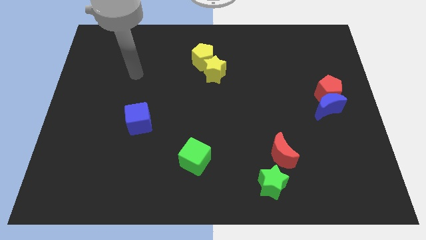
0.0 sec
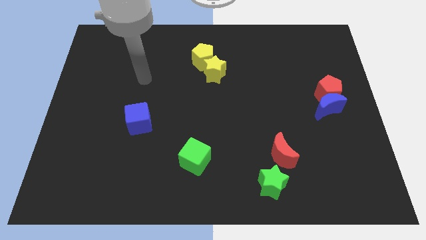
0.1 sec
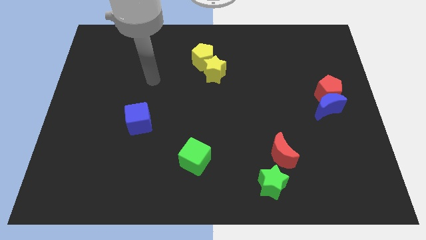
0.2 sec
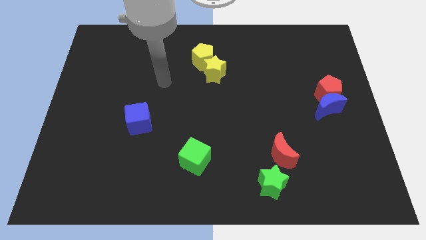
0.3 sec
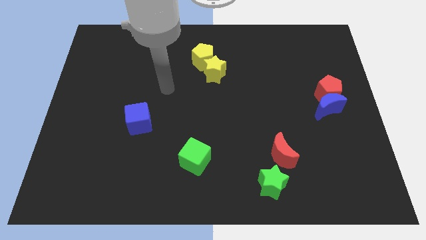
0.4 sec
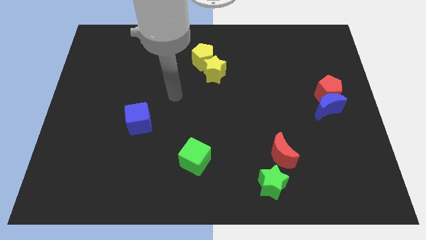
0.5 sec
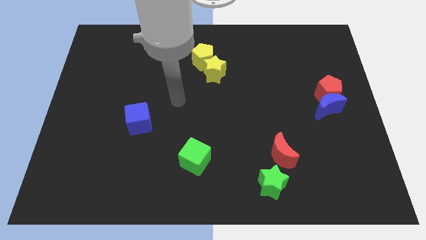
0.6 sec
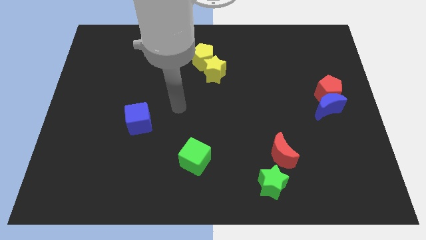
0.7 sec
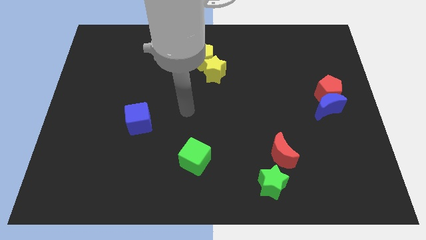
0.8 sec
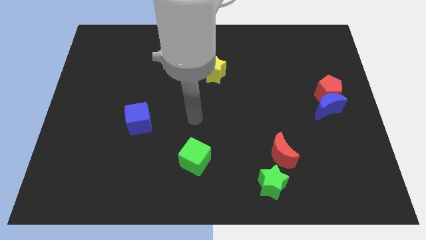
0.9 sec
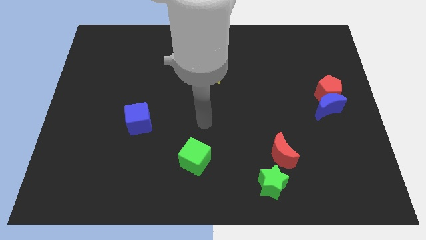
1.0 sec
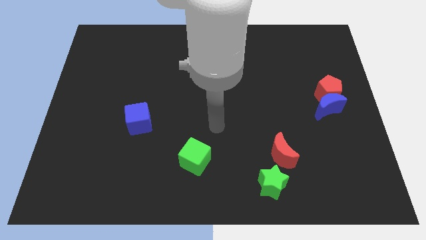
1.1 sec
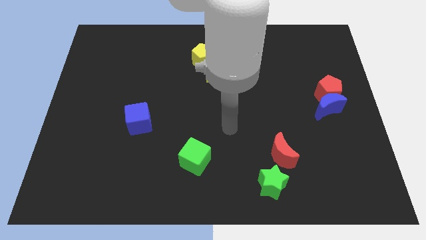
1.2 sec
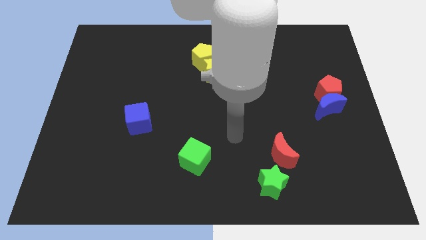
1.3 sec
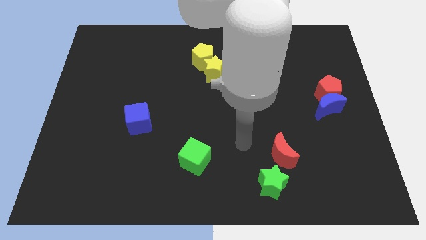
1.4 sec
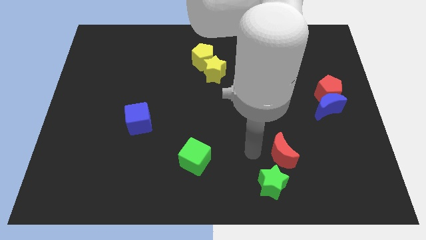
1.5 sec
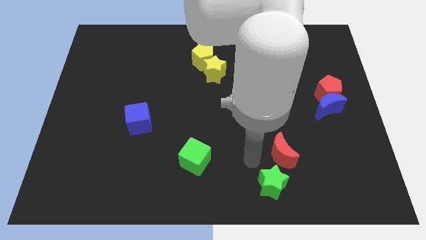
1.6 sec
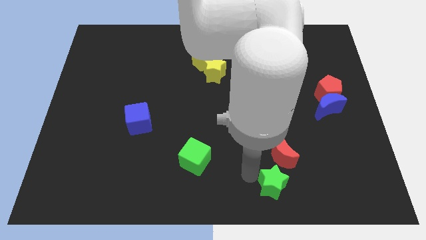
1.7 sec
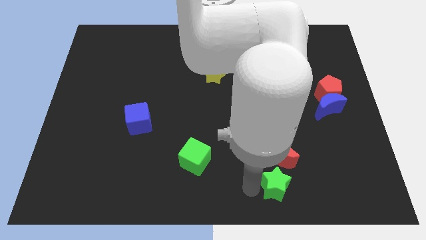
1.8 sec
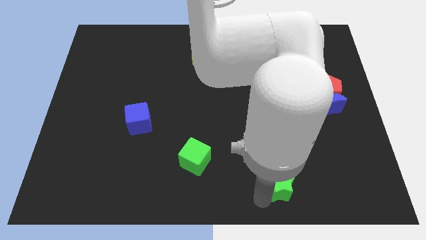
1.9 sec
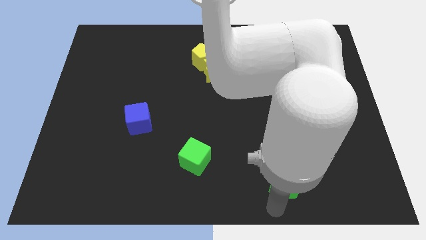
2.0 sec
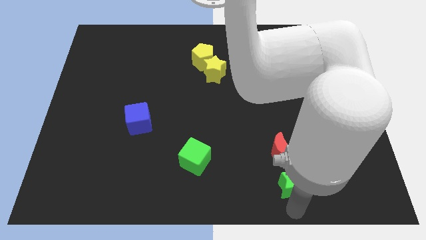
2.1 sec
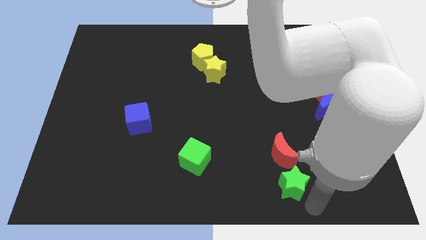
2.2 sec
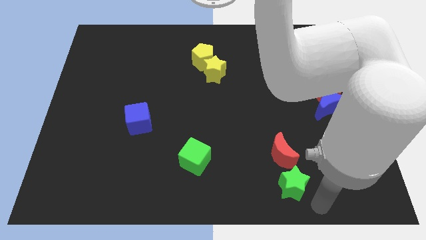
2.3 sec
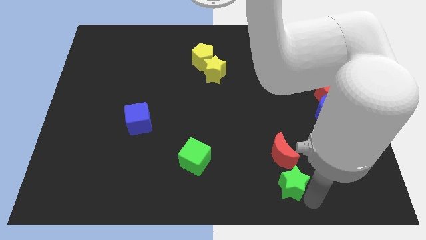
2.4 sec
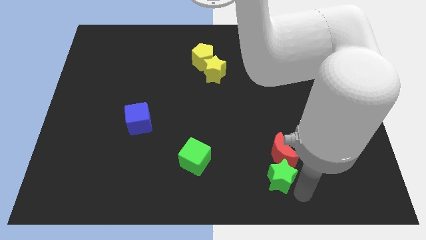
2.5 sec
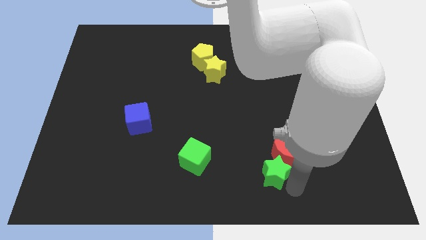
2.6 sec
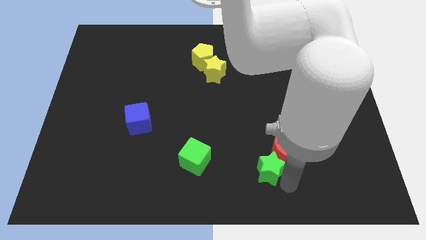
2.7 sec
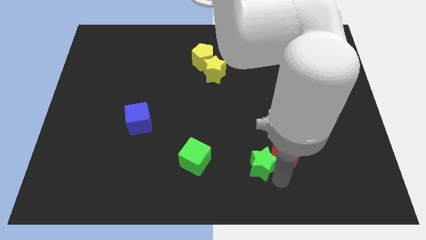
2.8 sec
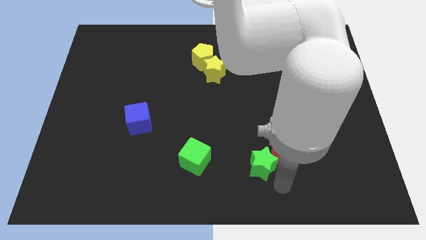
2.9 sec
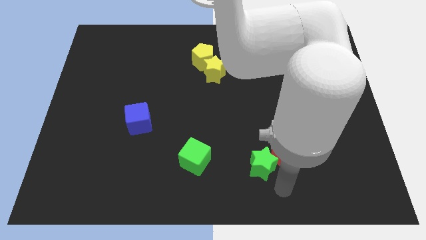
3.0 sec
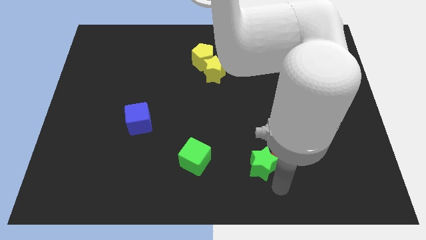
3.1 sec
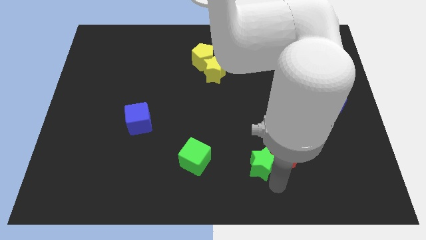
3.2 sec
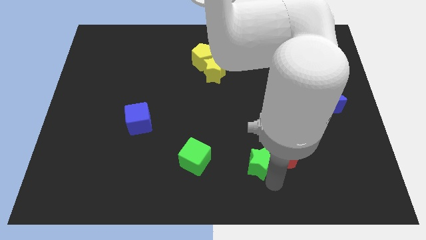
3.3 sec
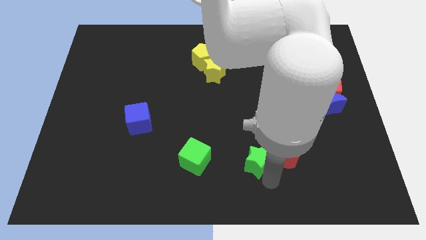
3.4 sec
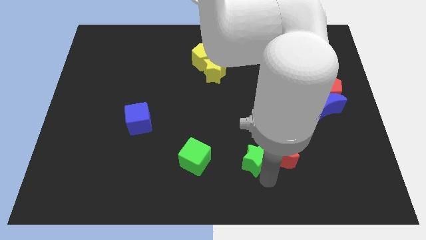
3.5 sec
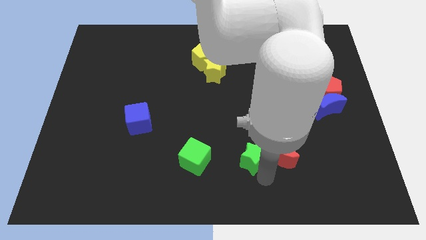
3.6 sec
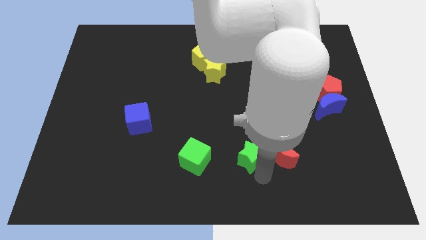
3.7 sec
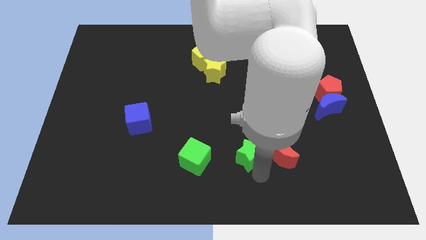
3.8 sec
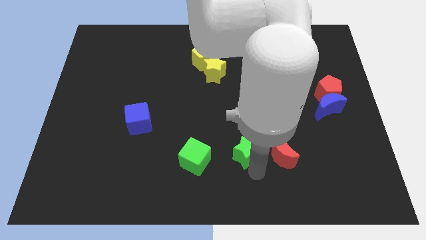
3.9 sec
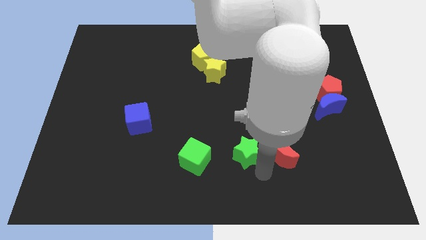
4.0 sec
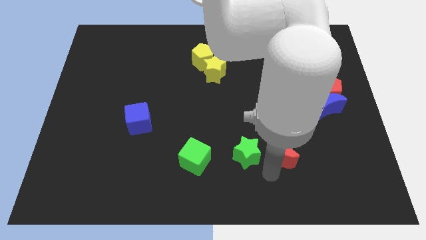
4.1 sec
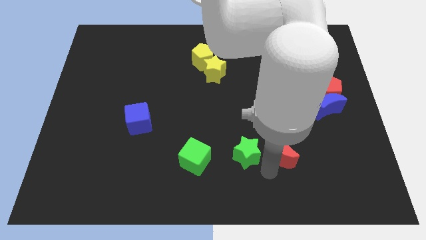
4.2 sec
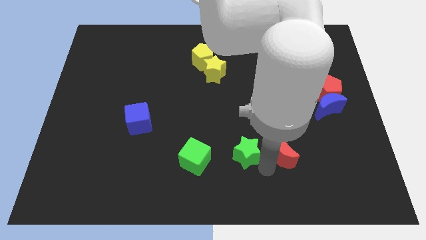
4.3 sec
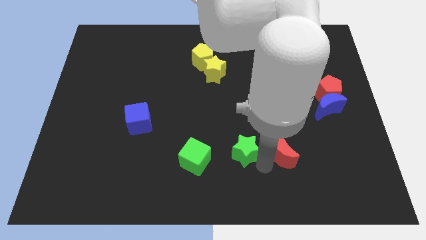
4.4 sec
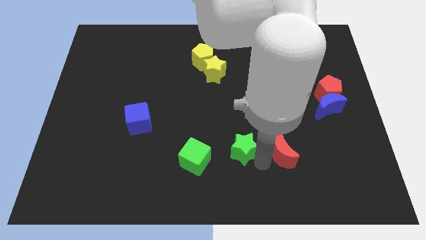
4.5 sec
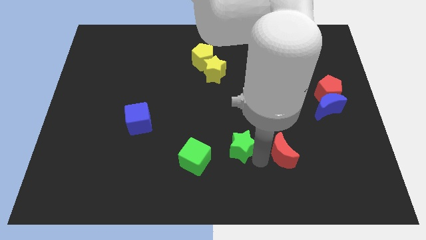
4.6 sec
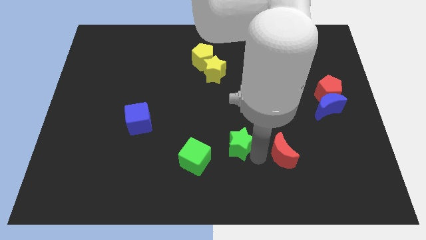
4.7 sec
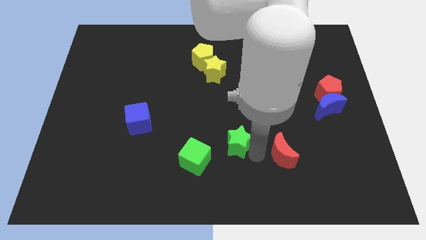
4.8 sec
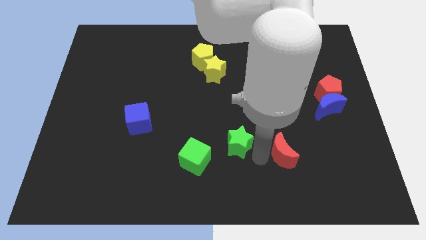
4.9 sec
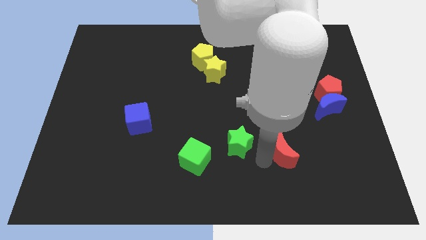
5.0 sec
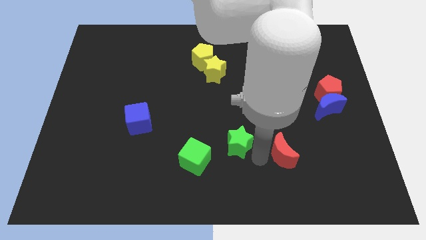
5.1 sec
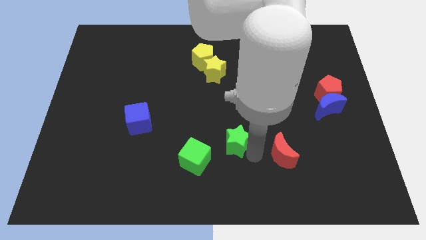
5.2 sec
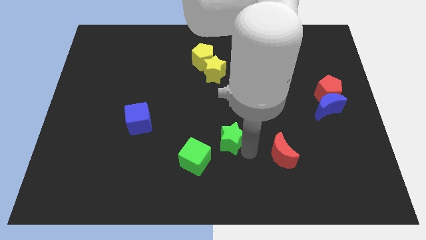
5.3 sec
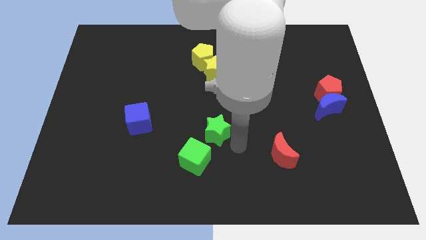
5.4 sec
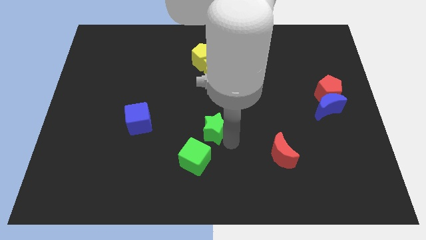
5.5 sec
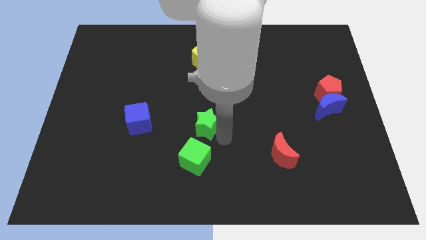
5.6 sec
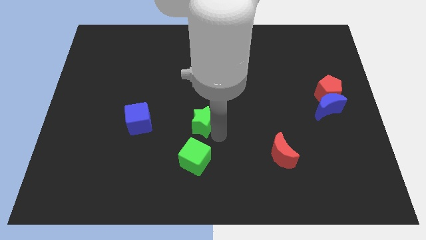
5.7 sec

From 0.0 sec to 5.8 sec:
push the green star diagonally up and left

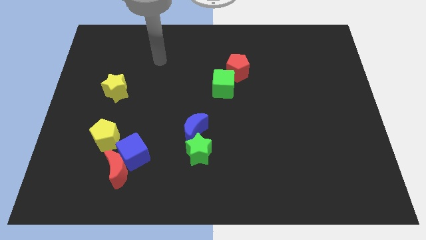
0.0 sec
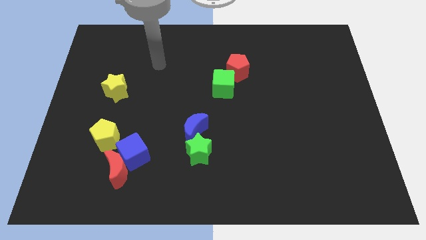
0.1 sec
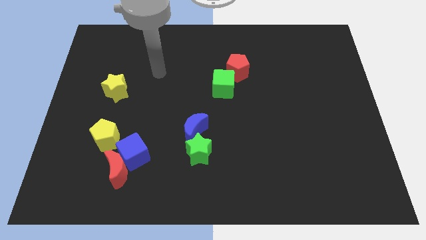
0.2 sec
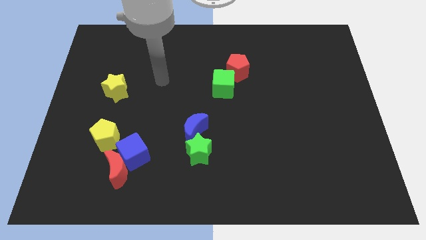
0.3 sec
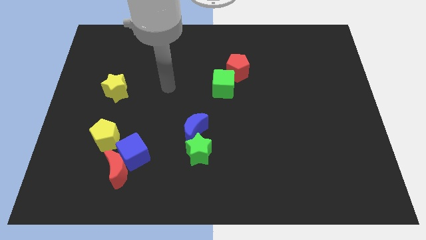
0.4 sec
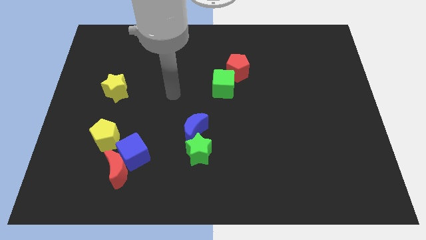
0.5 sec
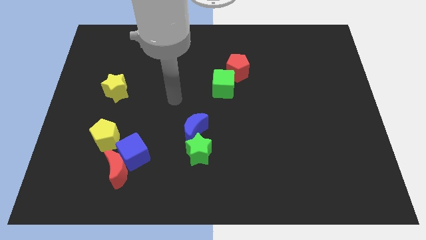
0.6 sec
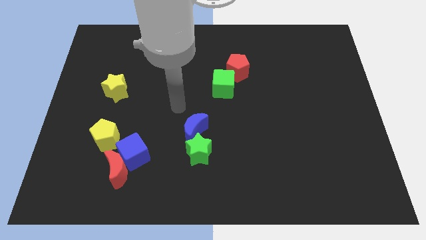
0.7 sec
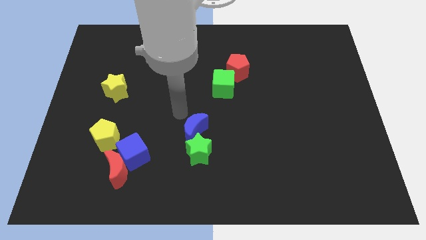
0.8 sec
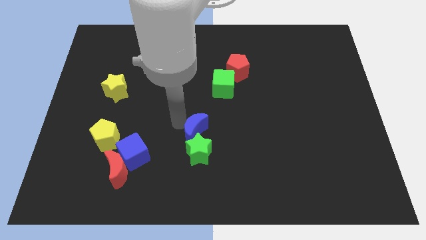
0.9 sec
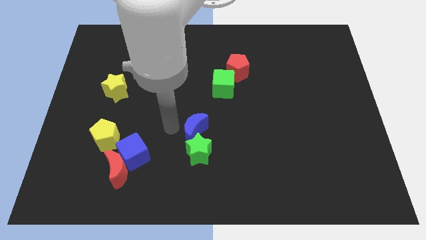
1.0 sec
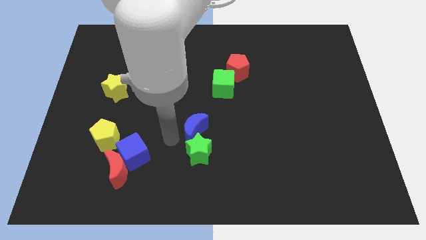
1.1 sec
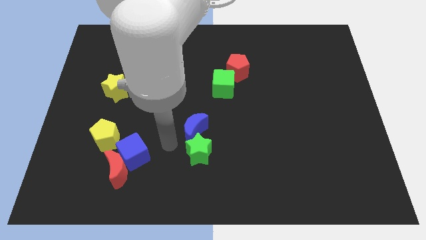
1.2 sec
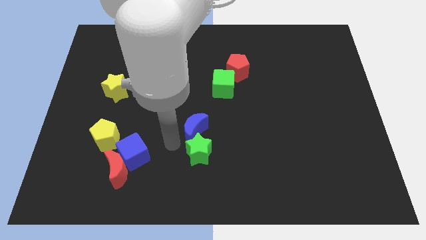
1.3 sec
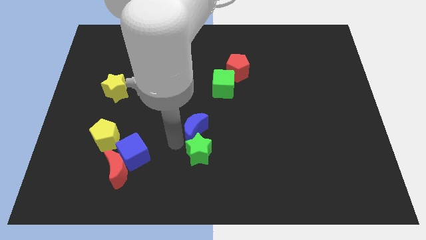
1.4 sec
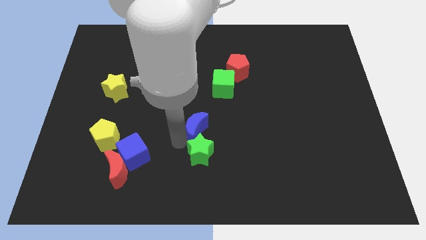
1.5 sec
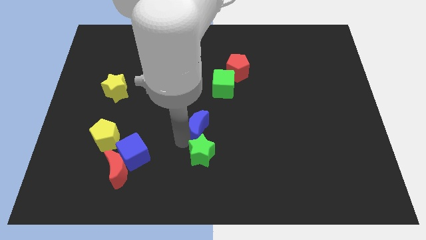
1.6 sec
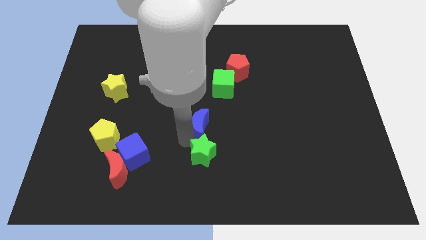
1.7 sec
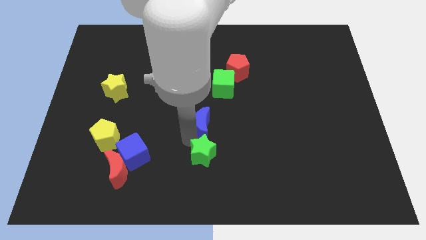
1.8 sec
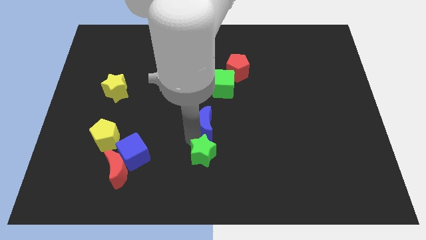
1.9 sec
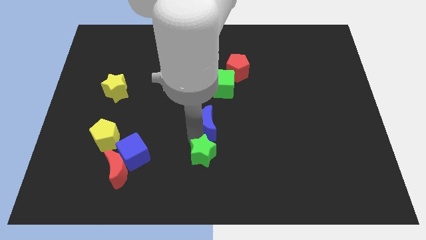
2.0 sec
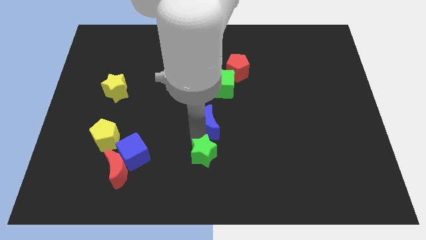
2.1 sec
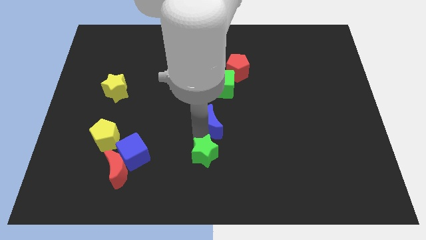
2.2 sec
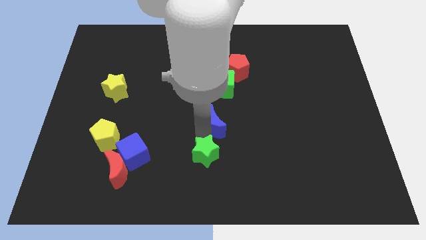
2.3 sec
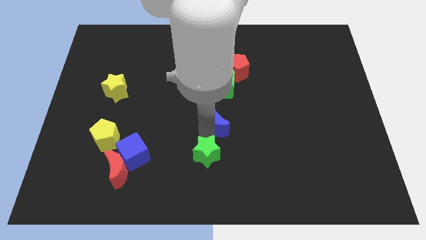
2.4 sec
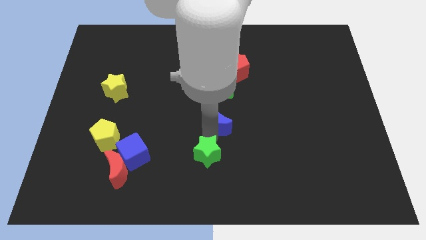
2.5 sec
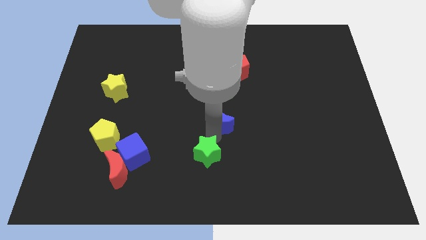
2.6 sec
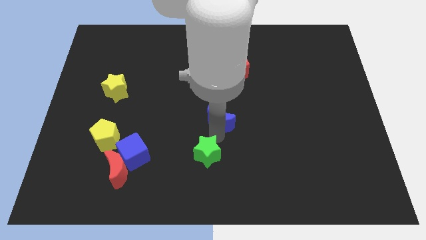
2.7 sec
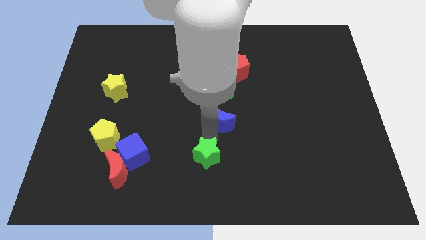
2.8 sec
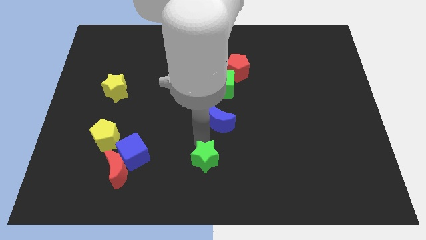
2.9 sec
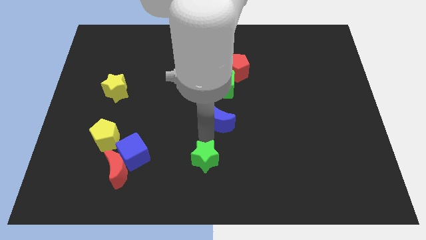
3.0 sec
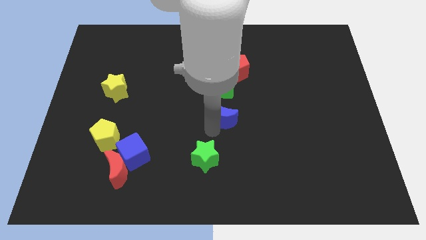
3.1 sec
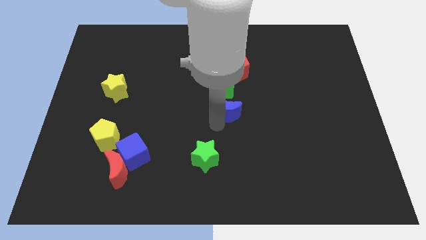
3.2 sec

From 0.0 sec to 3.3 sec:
push the blue moon upwards and right slightly
